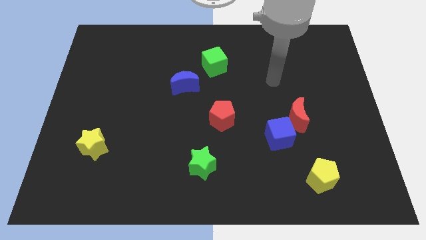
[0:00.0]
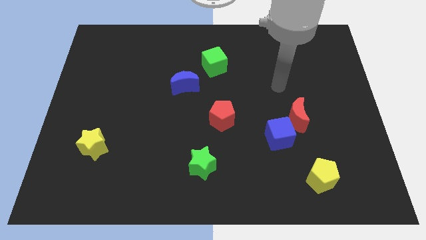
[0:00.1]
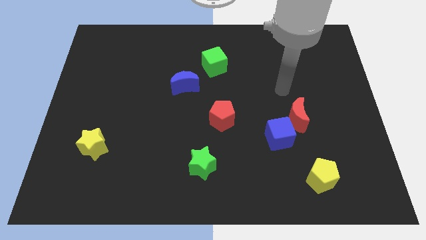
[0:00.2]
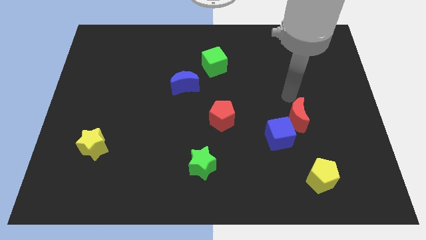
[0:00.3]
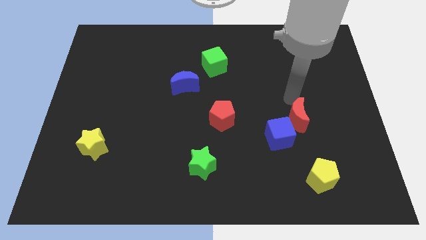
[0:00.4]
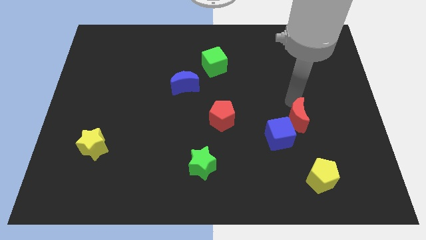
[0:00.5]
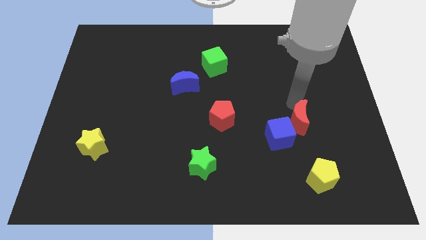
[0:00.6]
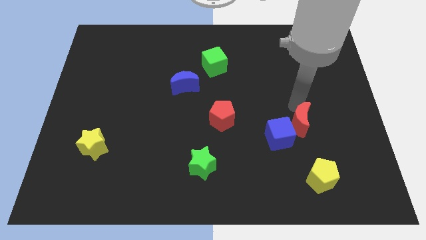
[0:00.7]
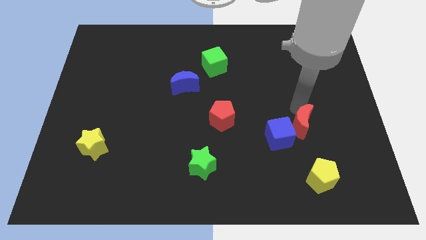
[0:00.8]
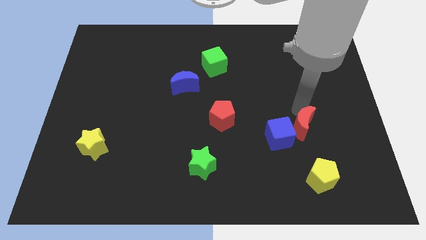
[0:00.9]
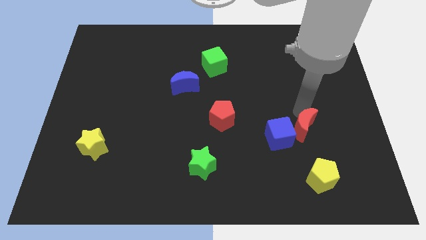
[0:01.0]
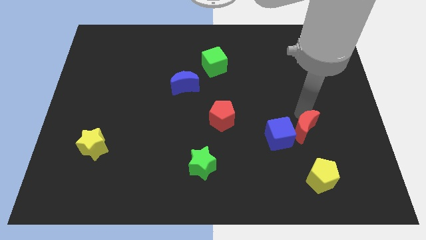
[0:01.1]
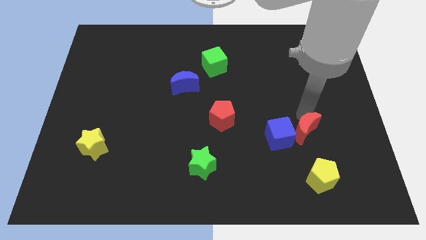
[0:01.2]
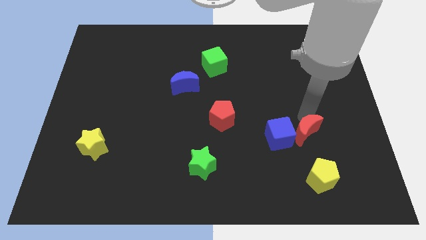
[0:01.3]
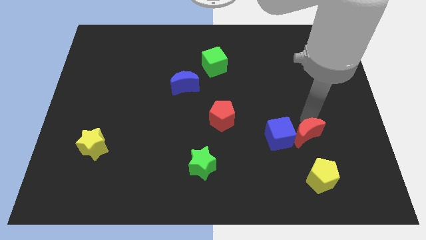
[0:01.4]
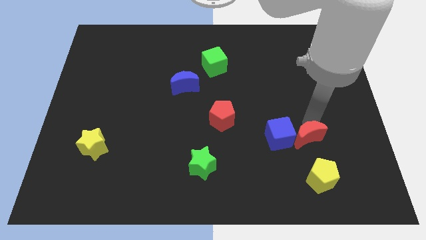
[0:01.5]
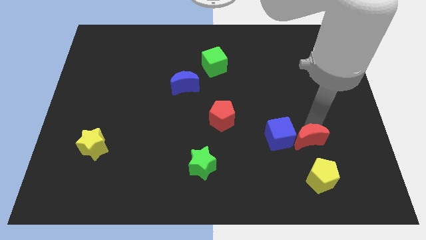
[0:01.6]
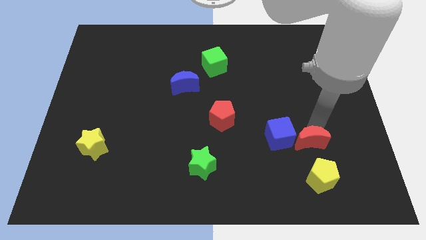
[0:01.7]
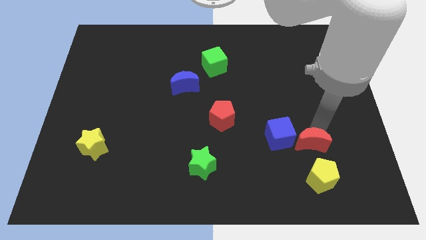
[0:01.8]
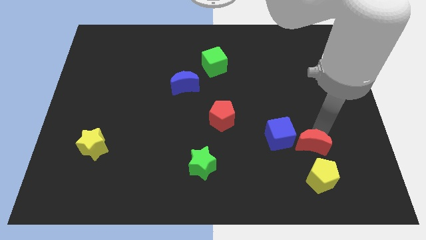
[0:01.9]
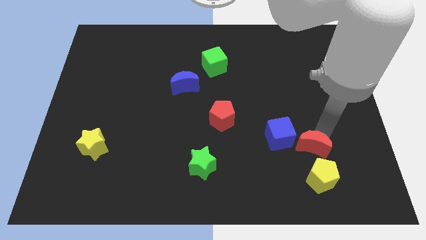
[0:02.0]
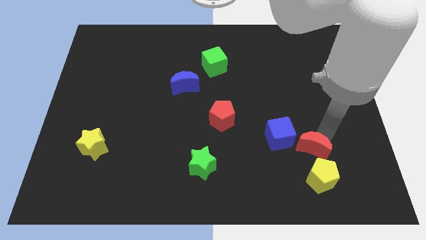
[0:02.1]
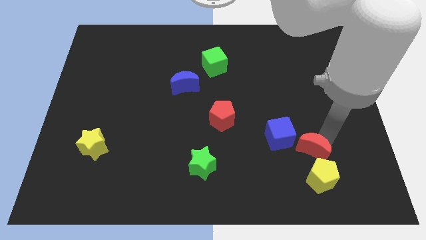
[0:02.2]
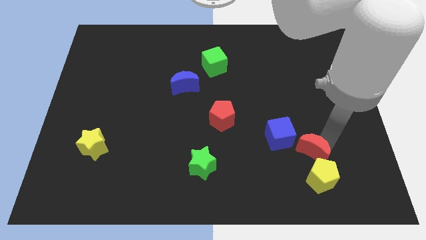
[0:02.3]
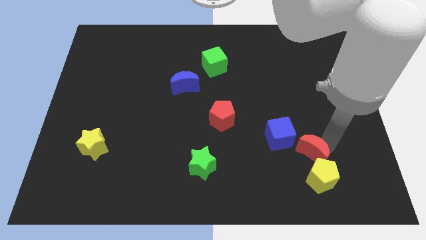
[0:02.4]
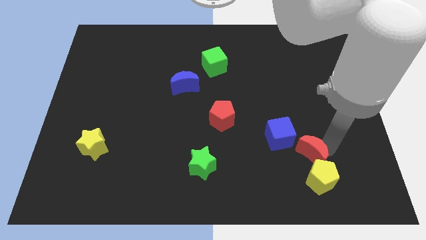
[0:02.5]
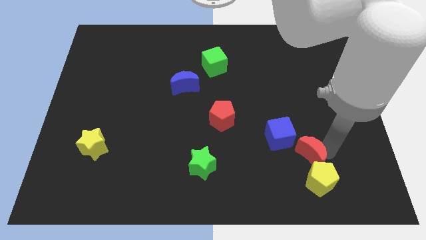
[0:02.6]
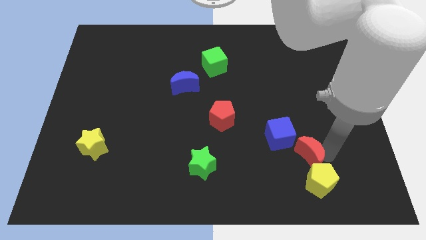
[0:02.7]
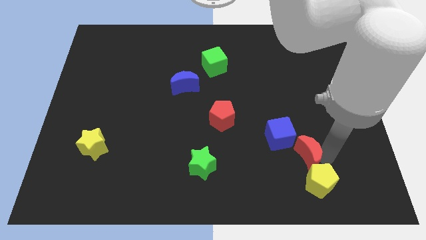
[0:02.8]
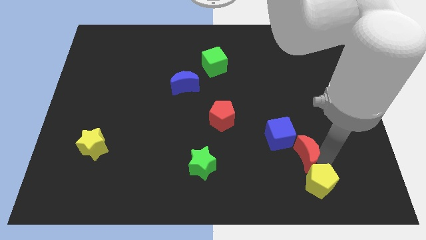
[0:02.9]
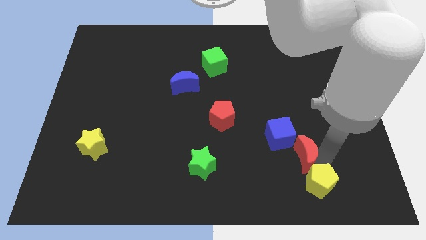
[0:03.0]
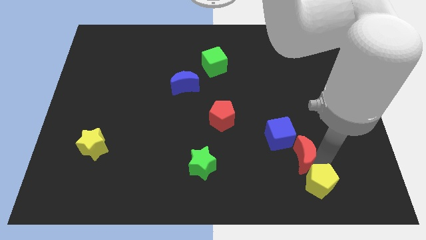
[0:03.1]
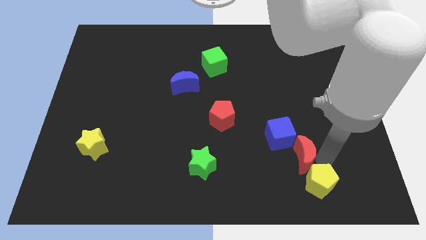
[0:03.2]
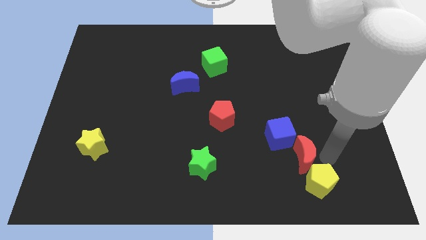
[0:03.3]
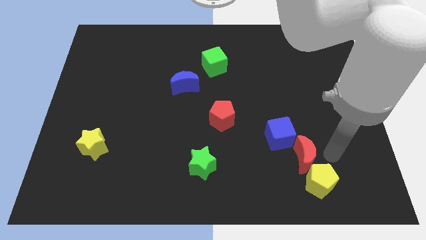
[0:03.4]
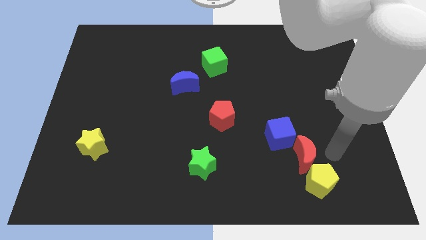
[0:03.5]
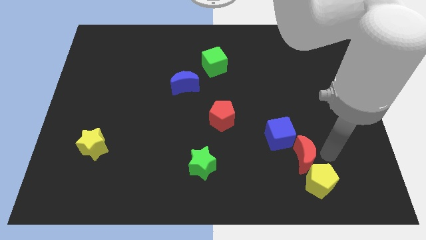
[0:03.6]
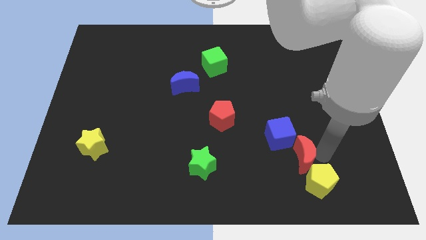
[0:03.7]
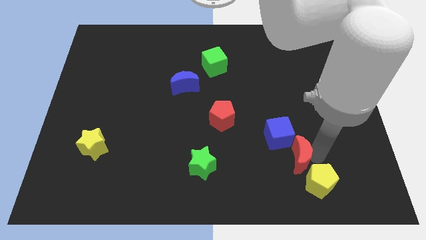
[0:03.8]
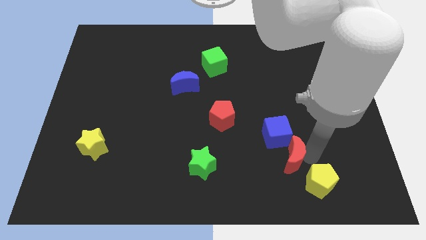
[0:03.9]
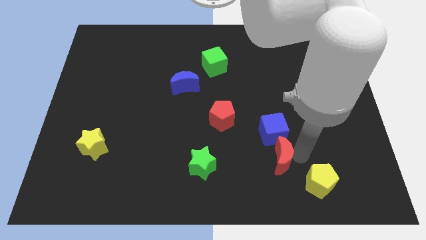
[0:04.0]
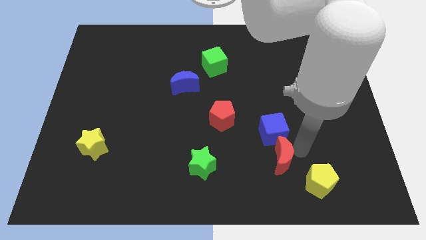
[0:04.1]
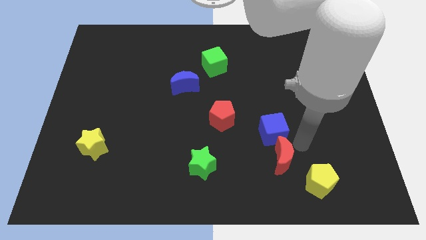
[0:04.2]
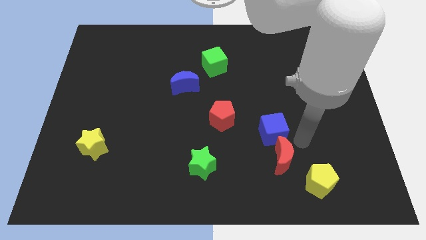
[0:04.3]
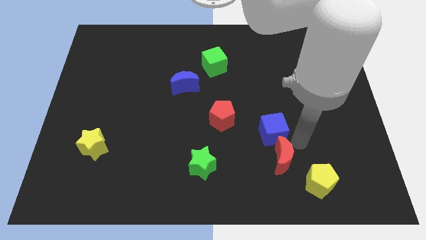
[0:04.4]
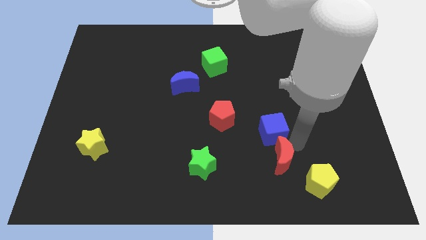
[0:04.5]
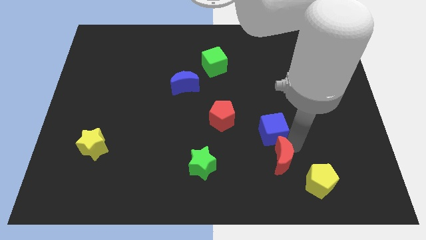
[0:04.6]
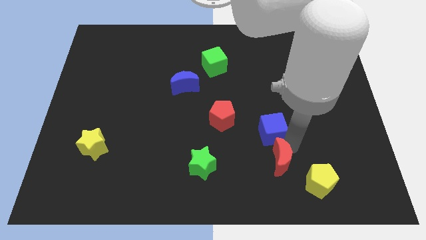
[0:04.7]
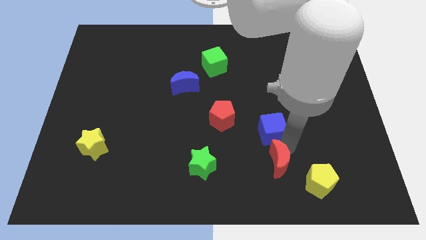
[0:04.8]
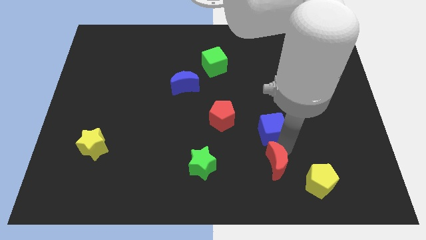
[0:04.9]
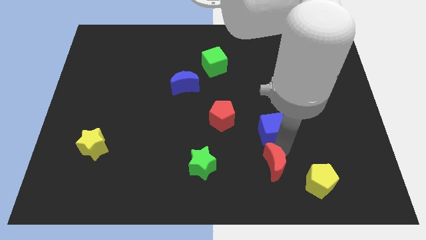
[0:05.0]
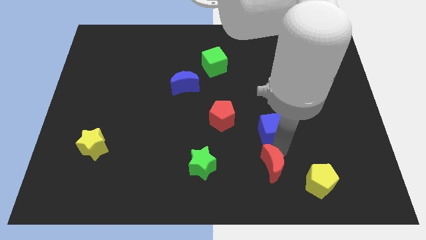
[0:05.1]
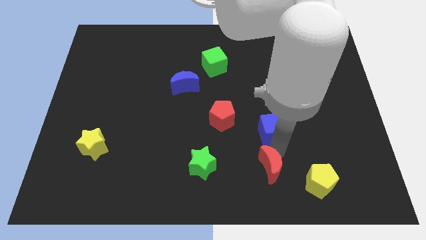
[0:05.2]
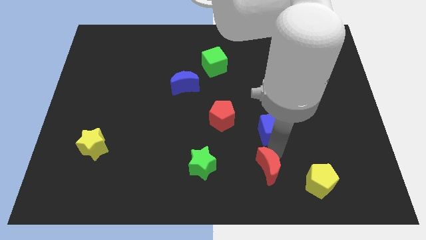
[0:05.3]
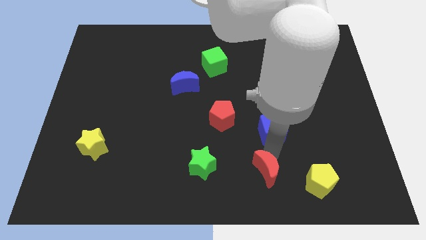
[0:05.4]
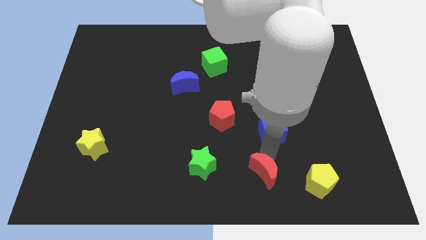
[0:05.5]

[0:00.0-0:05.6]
put the red moon to the bottom
